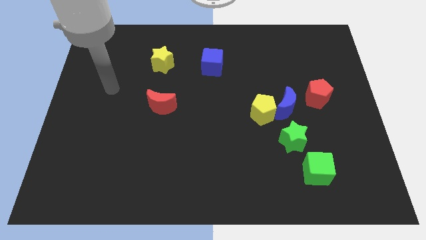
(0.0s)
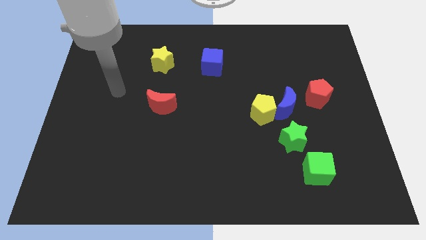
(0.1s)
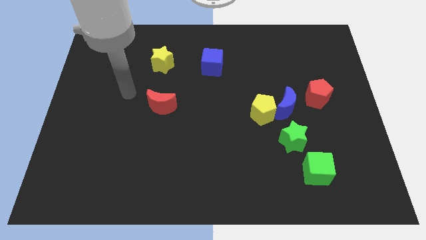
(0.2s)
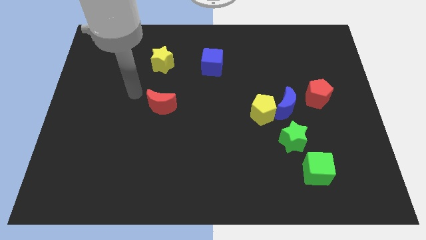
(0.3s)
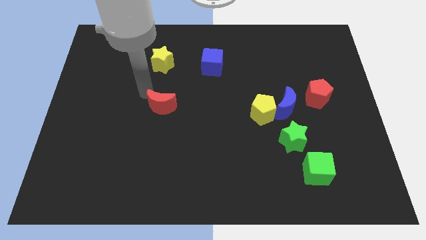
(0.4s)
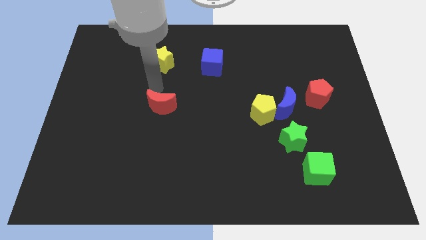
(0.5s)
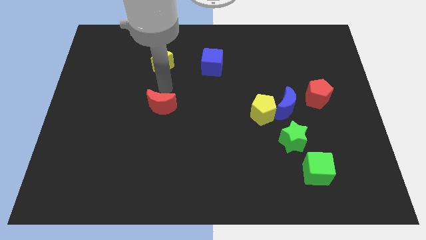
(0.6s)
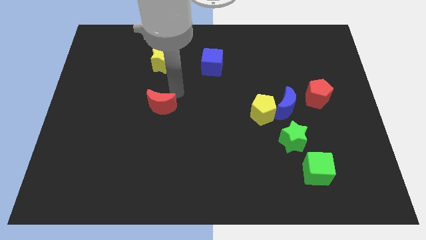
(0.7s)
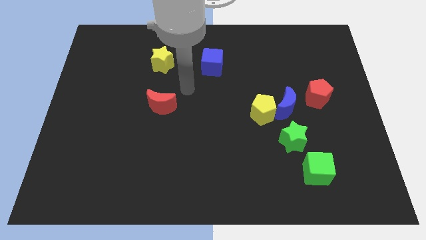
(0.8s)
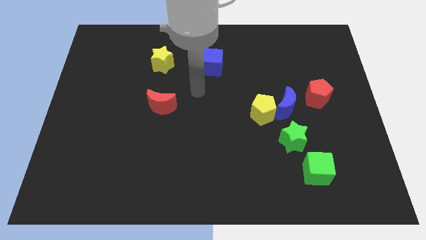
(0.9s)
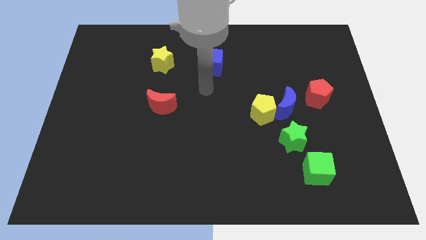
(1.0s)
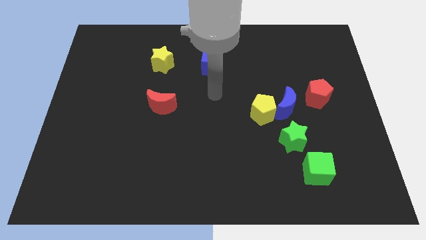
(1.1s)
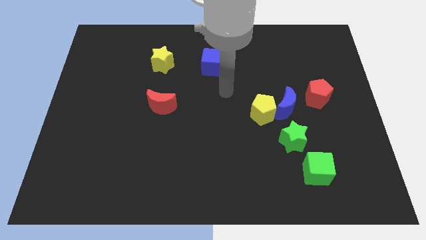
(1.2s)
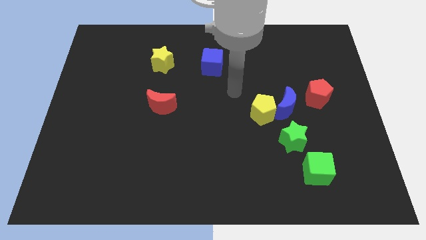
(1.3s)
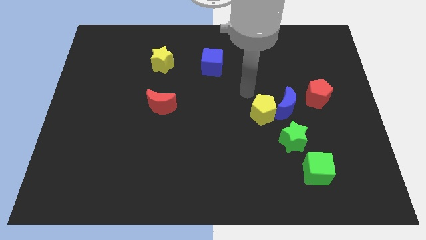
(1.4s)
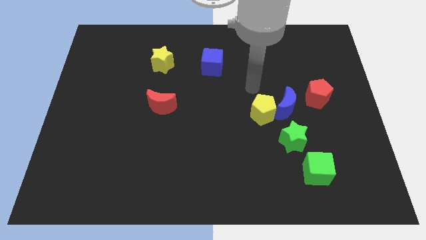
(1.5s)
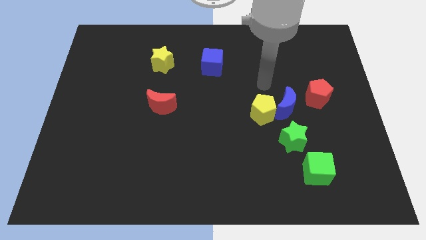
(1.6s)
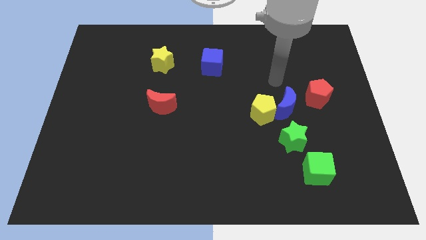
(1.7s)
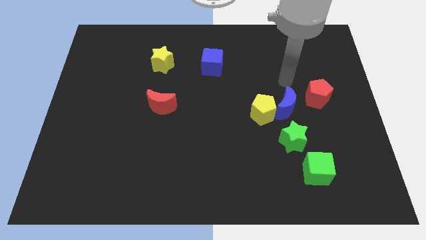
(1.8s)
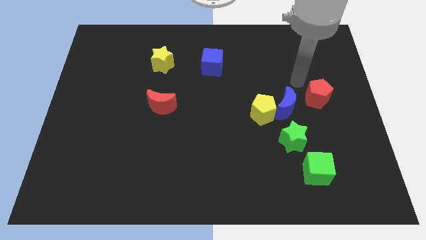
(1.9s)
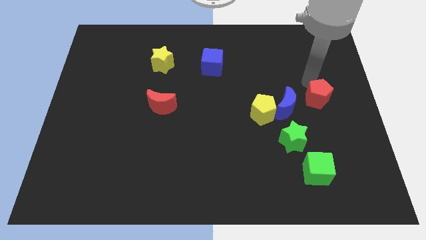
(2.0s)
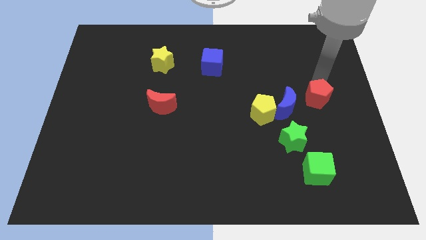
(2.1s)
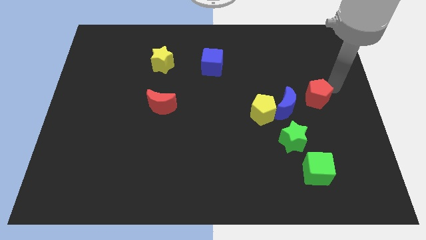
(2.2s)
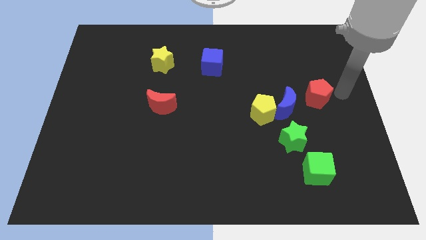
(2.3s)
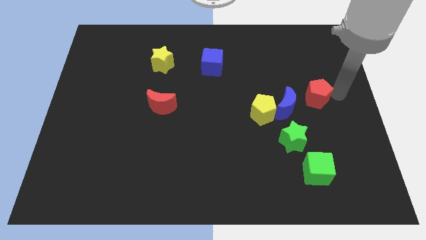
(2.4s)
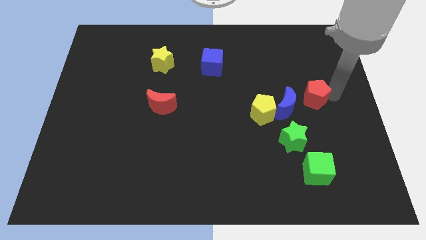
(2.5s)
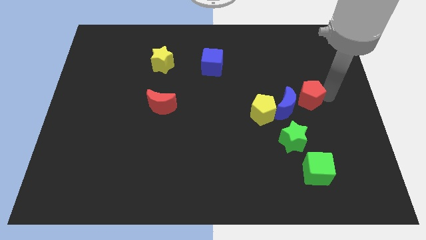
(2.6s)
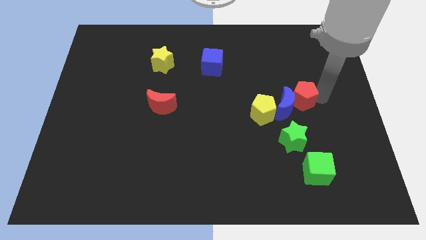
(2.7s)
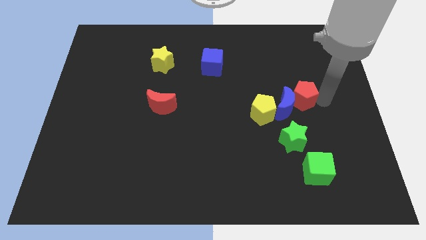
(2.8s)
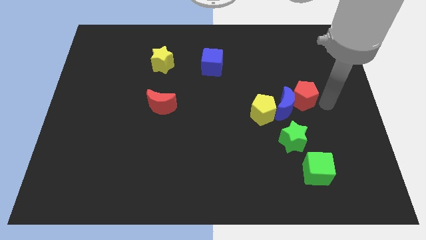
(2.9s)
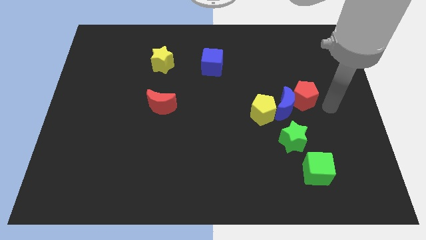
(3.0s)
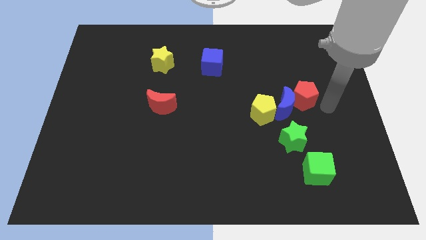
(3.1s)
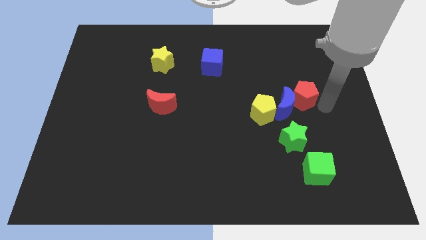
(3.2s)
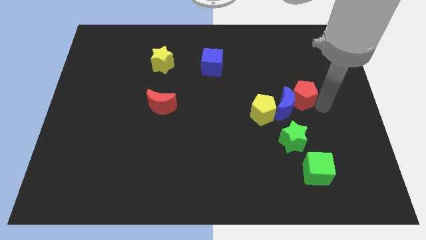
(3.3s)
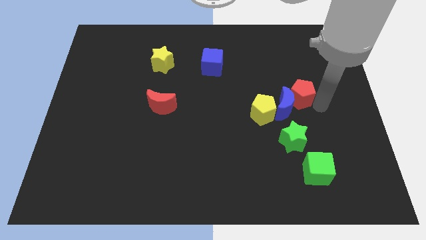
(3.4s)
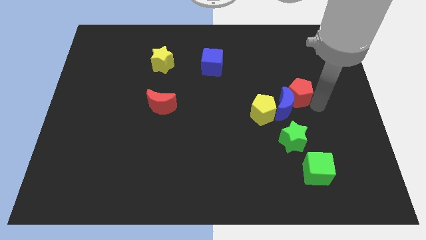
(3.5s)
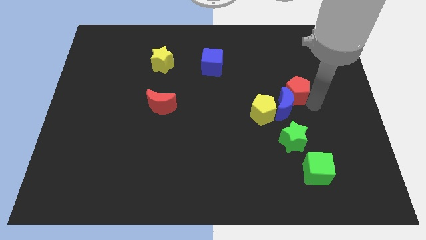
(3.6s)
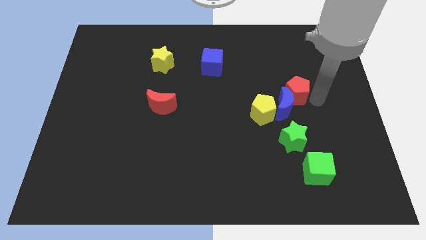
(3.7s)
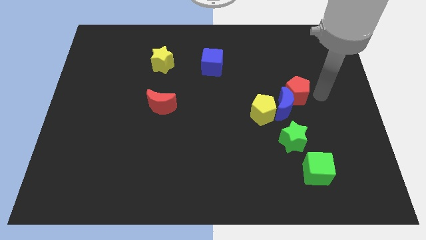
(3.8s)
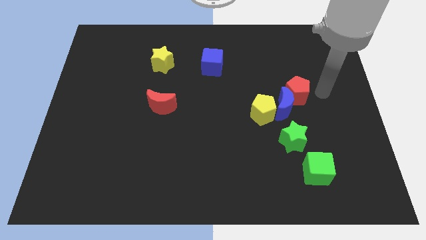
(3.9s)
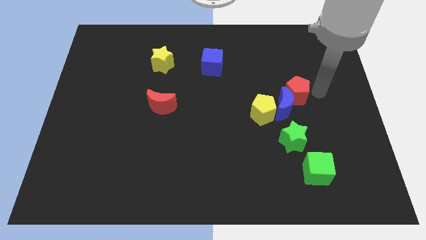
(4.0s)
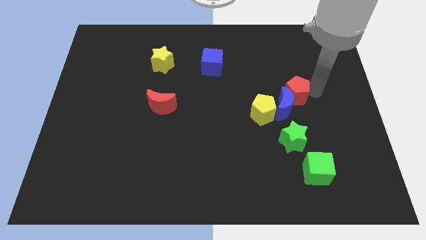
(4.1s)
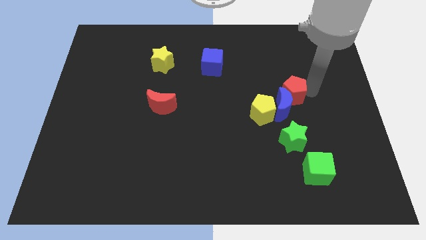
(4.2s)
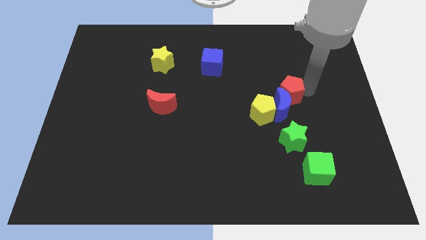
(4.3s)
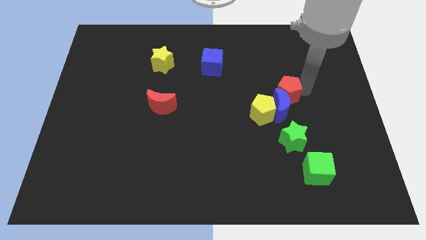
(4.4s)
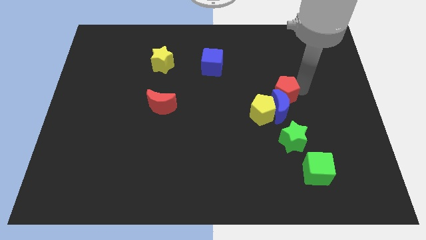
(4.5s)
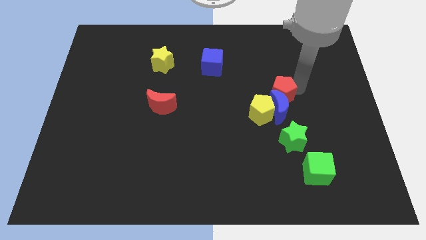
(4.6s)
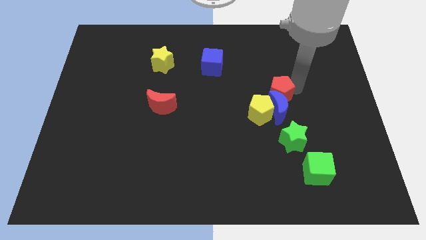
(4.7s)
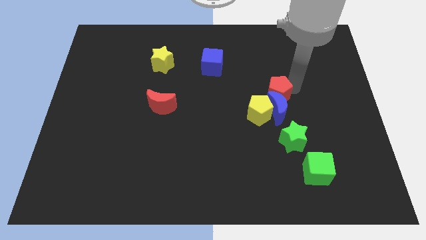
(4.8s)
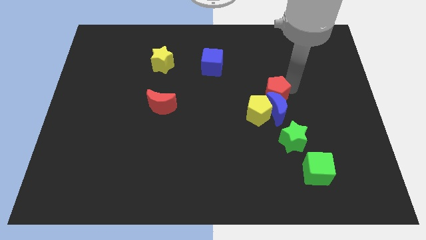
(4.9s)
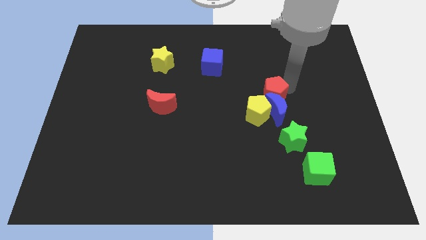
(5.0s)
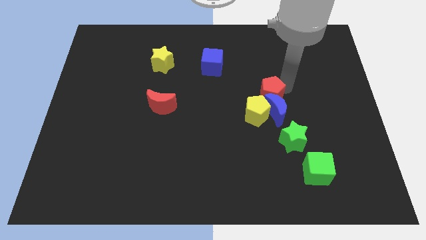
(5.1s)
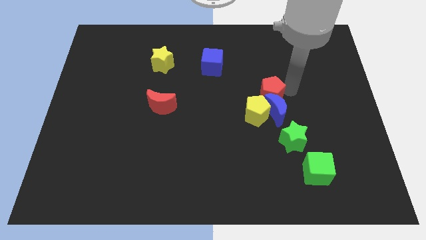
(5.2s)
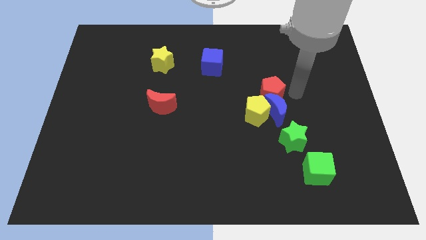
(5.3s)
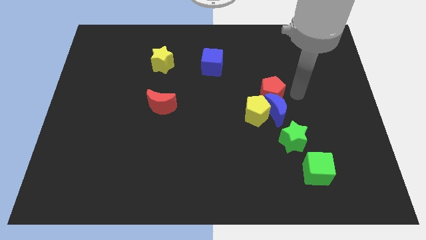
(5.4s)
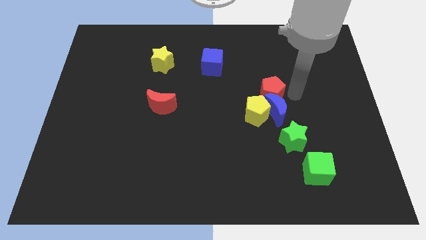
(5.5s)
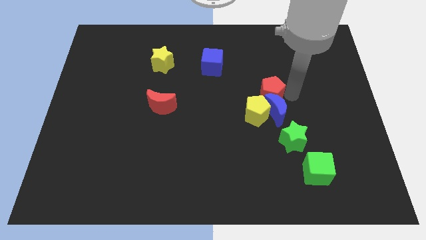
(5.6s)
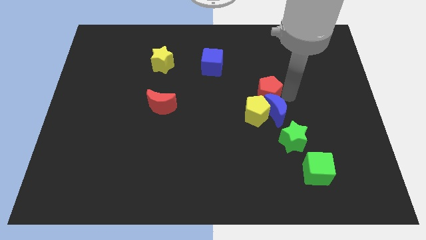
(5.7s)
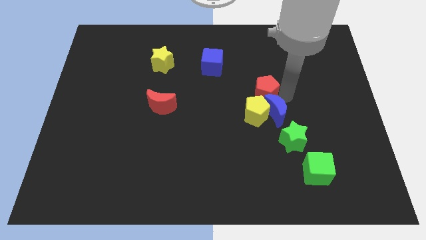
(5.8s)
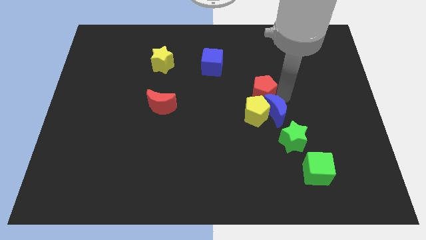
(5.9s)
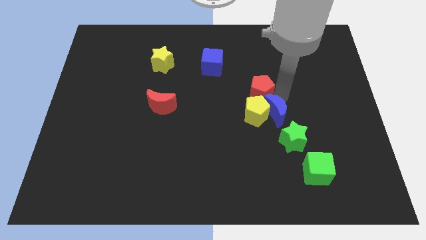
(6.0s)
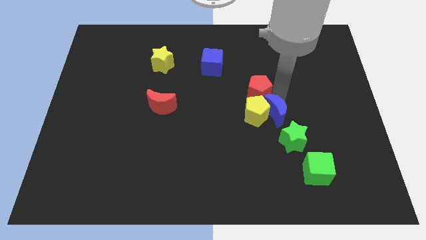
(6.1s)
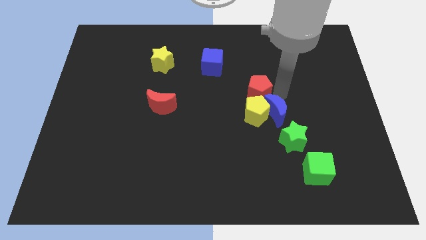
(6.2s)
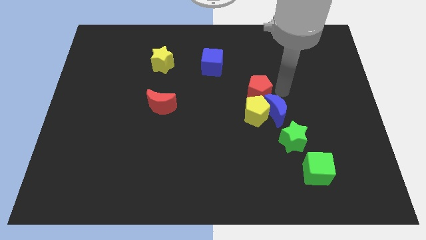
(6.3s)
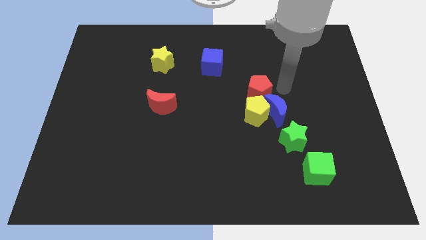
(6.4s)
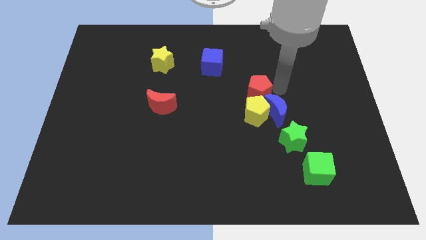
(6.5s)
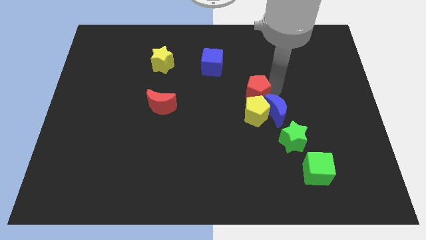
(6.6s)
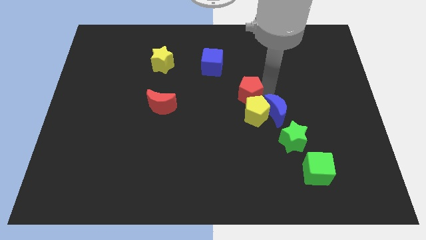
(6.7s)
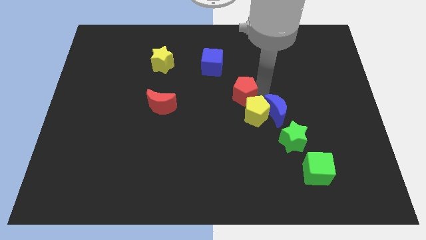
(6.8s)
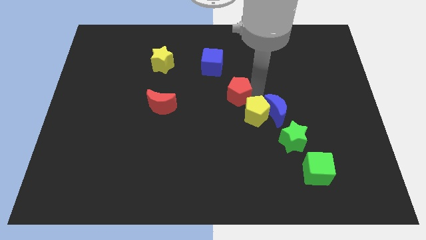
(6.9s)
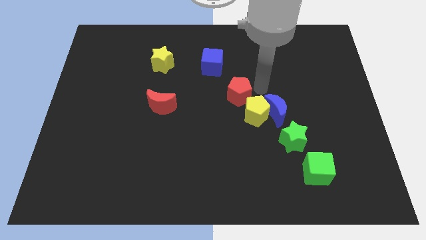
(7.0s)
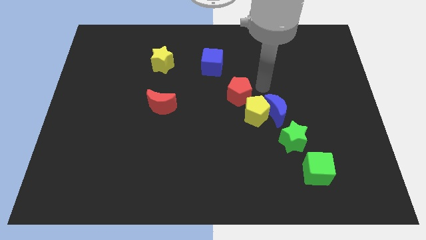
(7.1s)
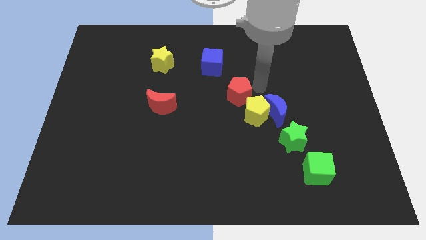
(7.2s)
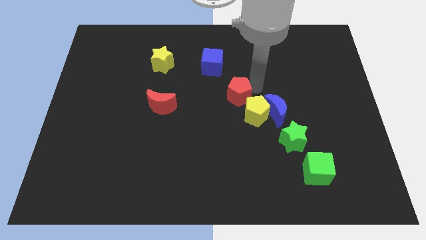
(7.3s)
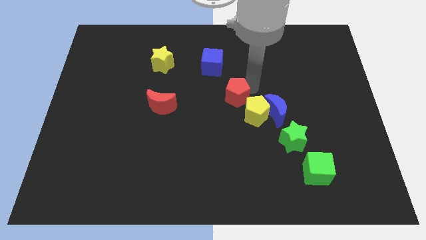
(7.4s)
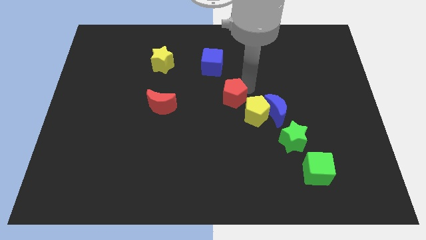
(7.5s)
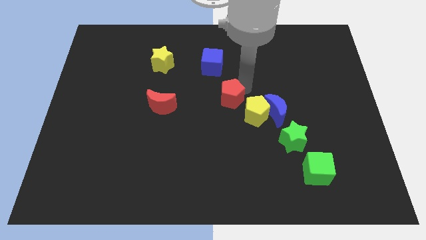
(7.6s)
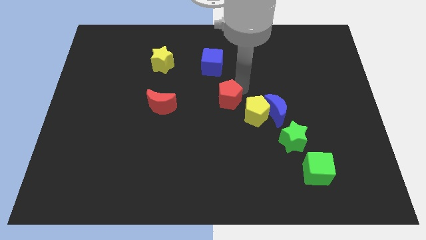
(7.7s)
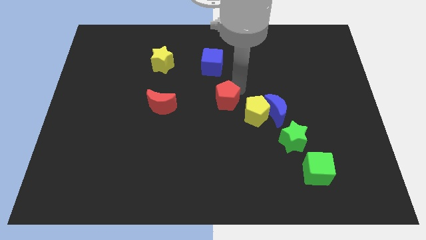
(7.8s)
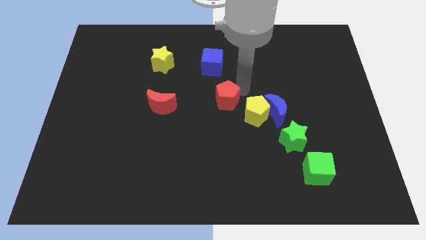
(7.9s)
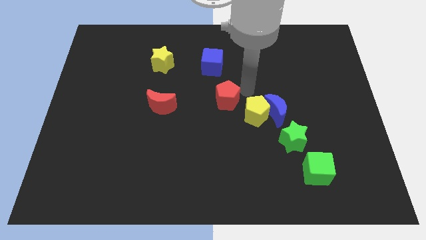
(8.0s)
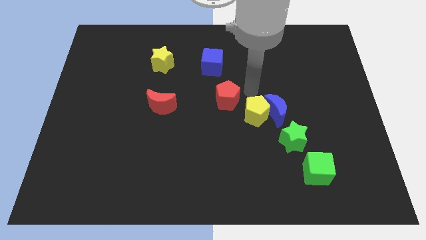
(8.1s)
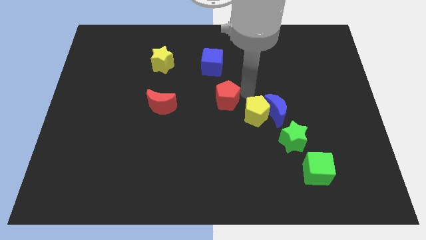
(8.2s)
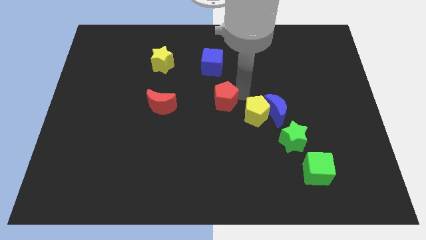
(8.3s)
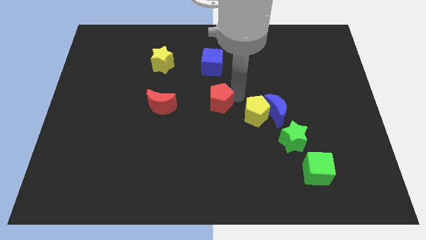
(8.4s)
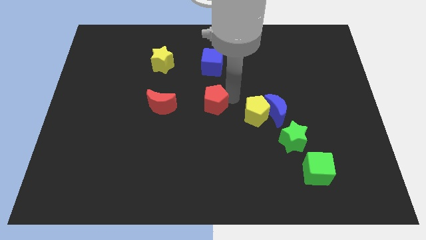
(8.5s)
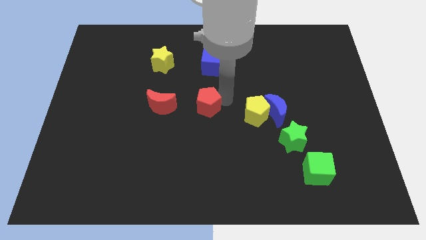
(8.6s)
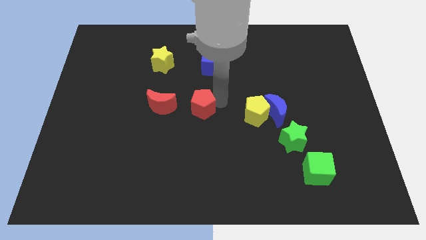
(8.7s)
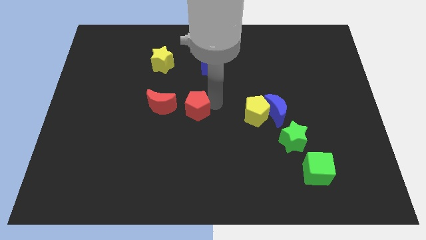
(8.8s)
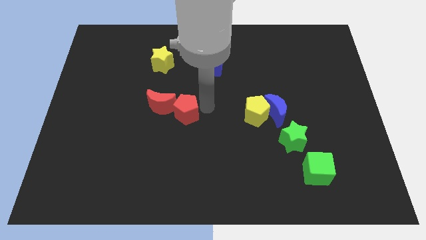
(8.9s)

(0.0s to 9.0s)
move the red pentagon close to the red moon
